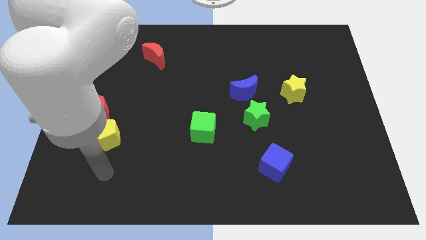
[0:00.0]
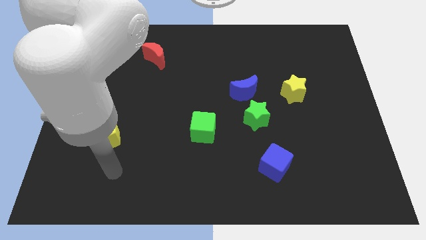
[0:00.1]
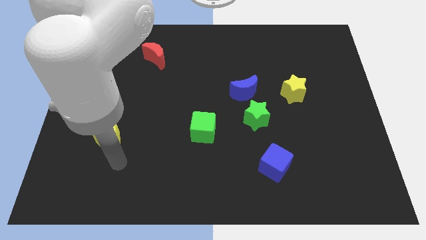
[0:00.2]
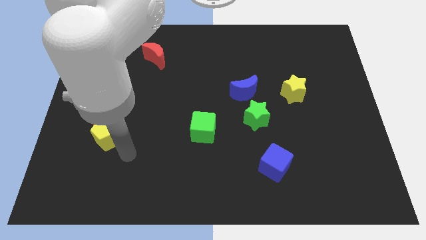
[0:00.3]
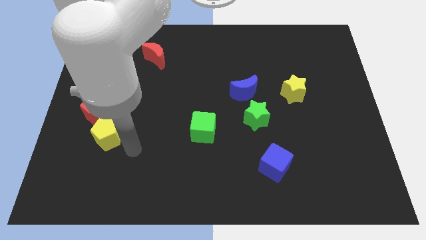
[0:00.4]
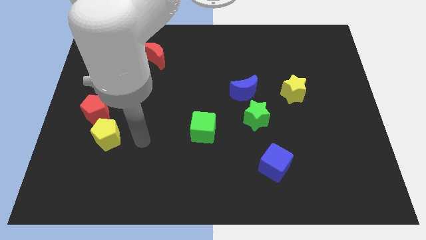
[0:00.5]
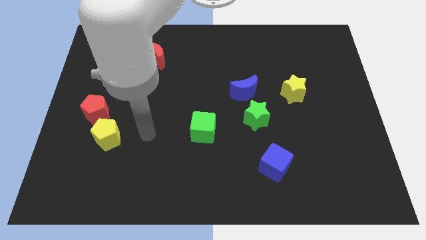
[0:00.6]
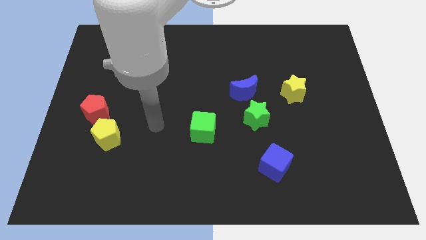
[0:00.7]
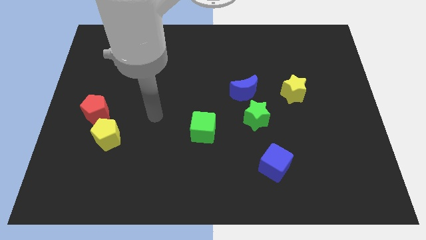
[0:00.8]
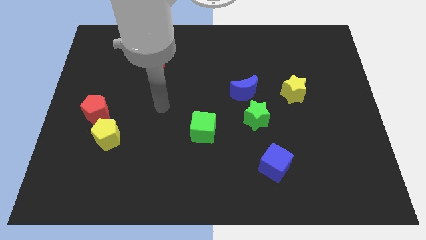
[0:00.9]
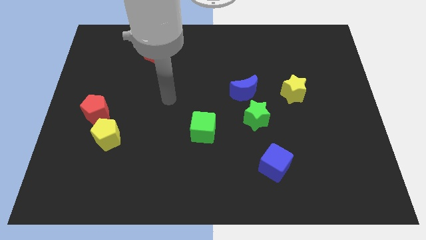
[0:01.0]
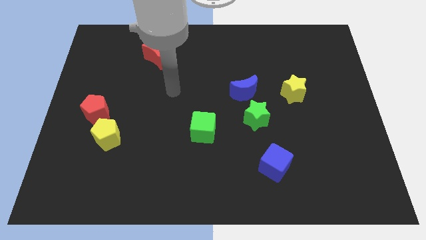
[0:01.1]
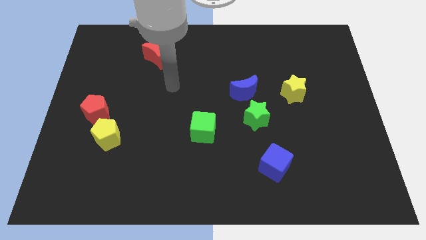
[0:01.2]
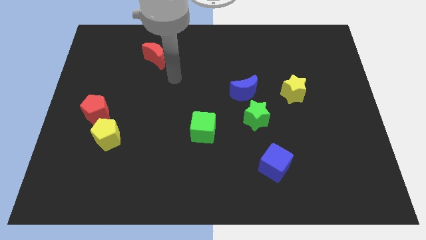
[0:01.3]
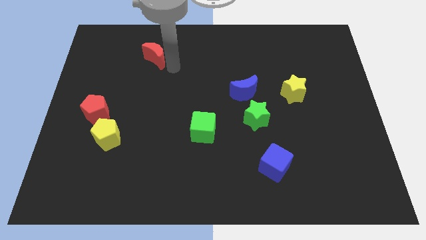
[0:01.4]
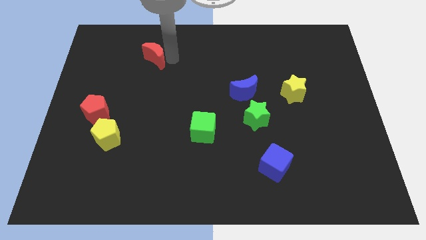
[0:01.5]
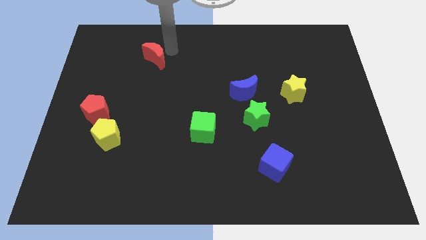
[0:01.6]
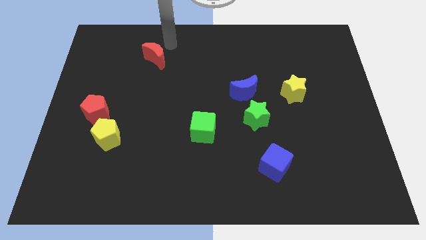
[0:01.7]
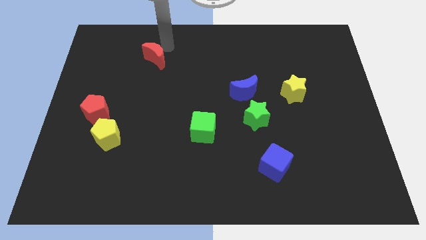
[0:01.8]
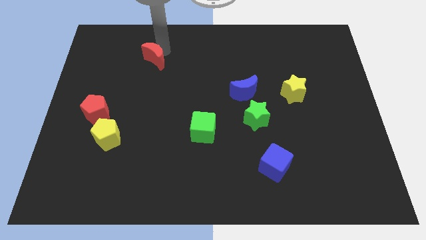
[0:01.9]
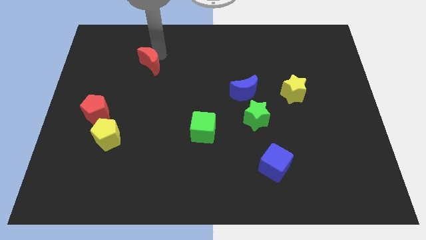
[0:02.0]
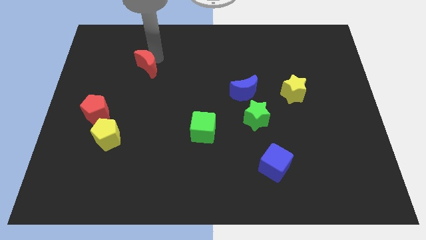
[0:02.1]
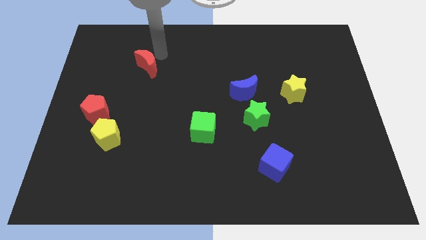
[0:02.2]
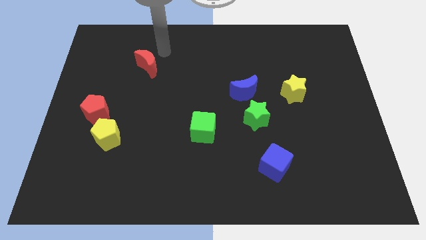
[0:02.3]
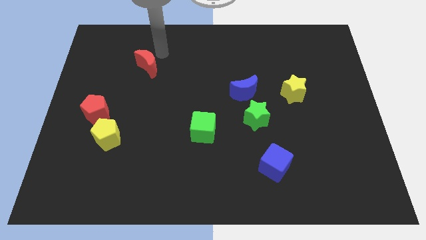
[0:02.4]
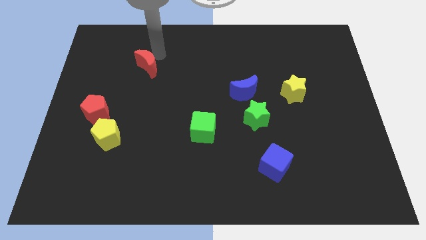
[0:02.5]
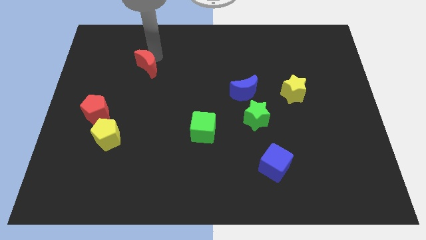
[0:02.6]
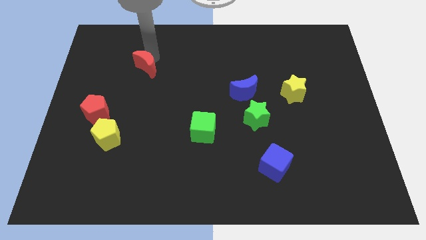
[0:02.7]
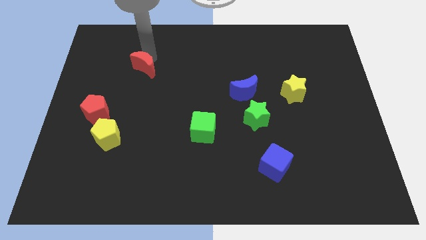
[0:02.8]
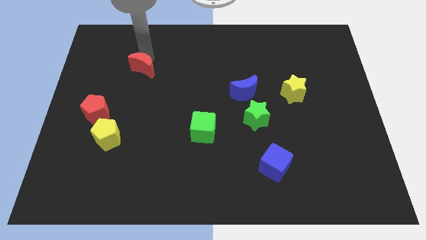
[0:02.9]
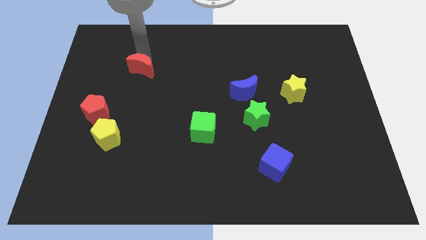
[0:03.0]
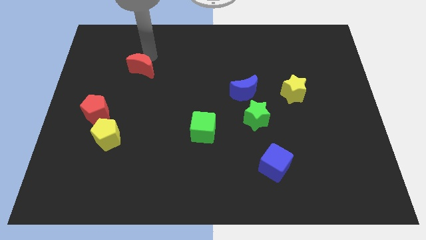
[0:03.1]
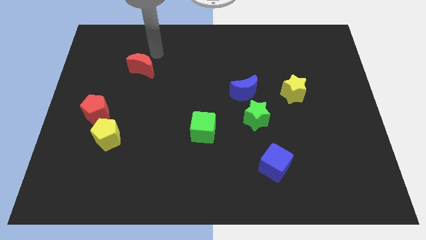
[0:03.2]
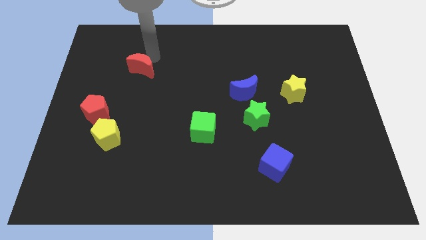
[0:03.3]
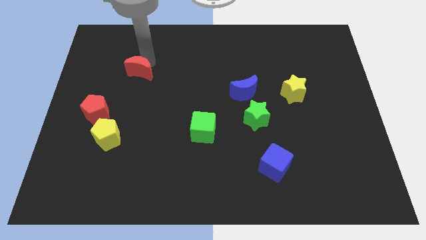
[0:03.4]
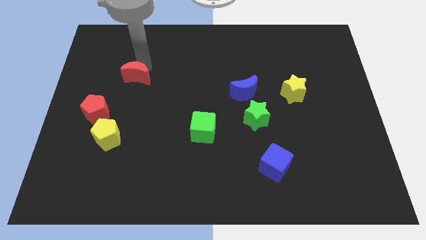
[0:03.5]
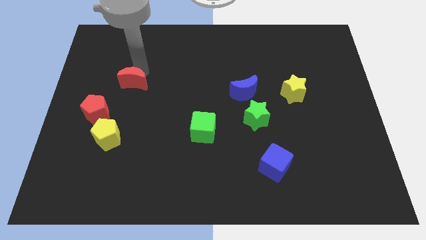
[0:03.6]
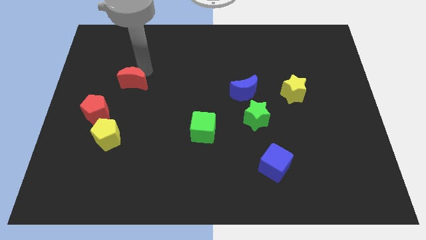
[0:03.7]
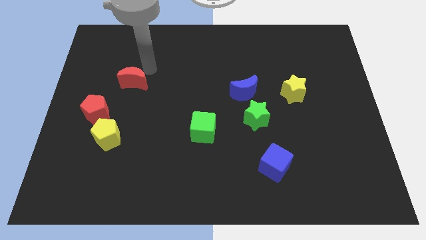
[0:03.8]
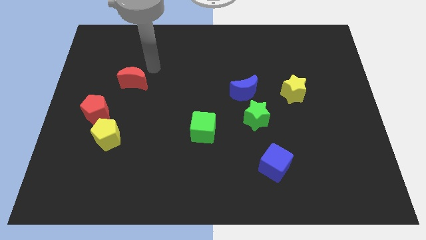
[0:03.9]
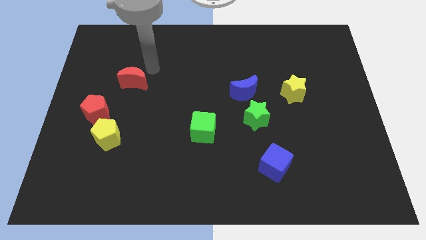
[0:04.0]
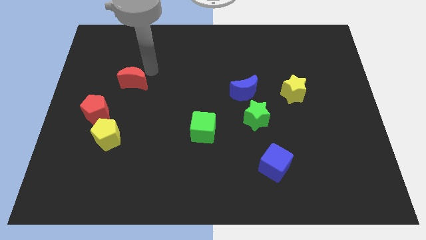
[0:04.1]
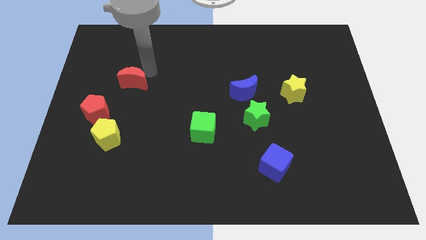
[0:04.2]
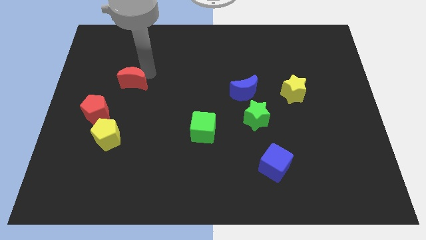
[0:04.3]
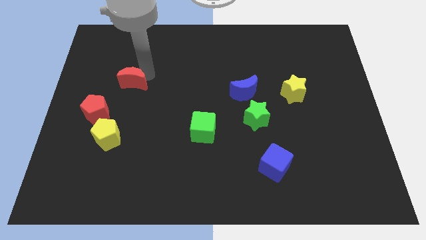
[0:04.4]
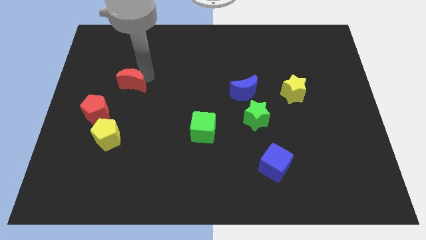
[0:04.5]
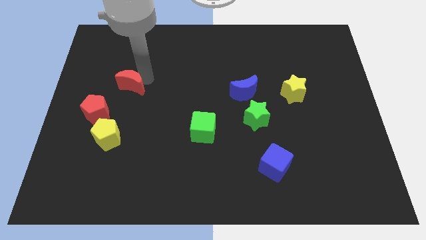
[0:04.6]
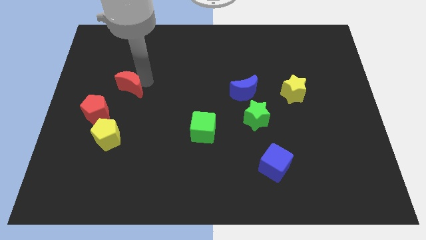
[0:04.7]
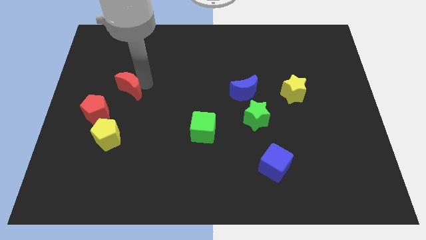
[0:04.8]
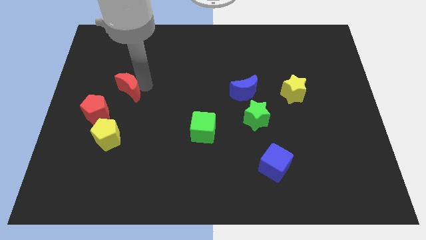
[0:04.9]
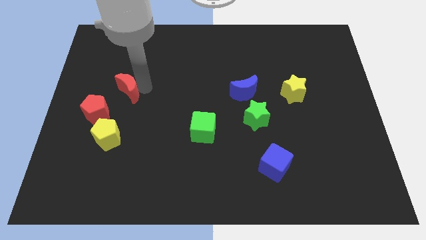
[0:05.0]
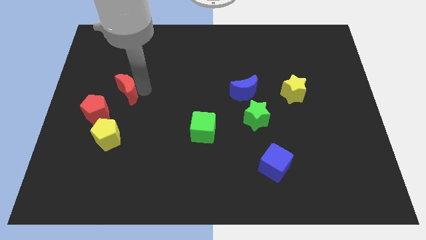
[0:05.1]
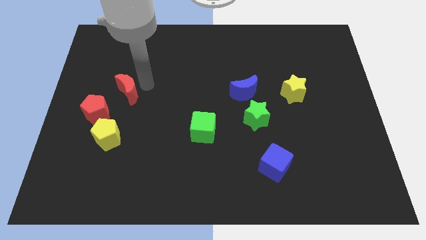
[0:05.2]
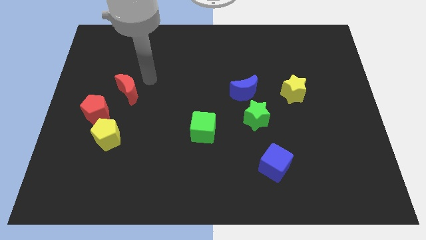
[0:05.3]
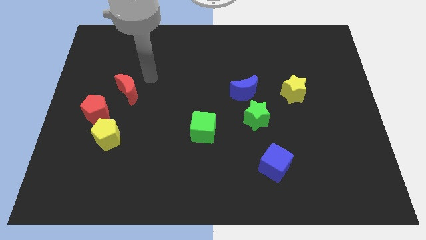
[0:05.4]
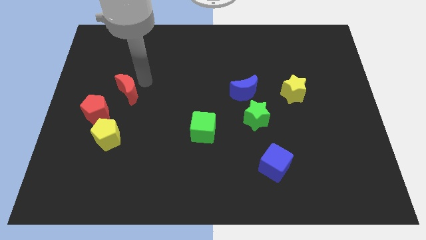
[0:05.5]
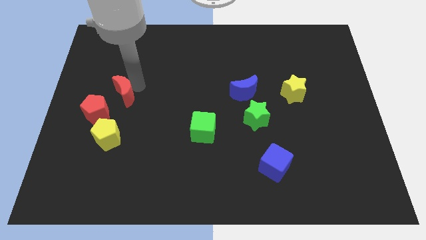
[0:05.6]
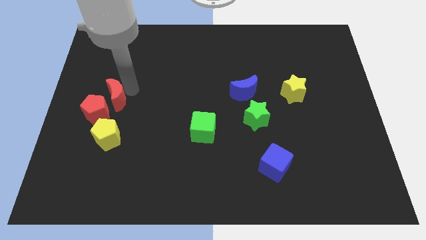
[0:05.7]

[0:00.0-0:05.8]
push the red moon to the red pentagon

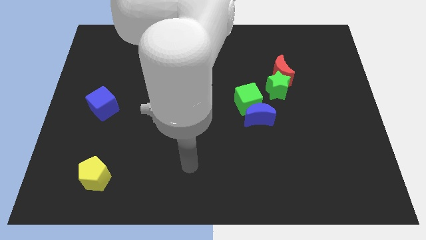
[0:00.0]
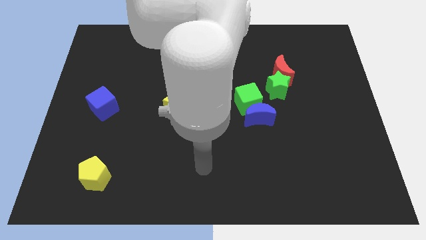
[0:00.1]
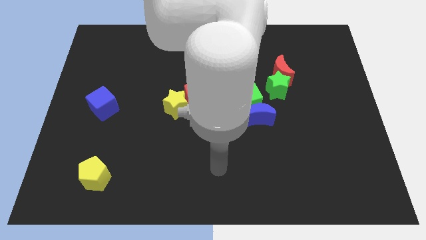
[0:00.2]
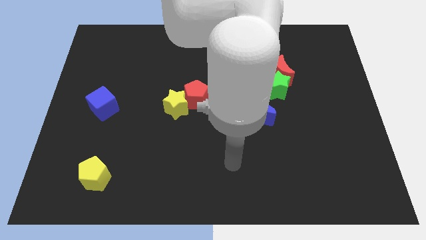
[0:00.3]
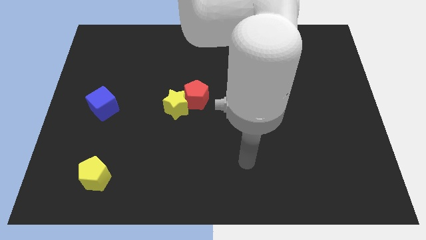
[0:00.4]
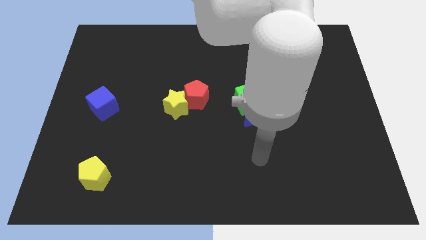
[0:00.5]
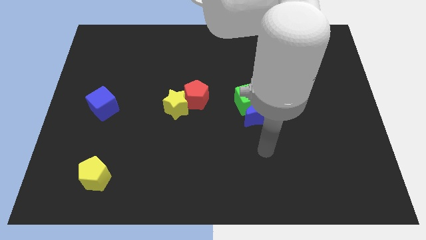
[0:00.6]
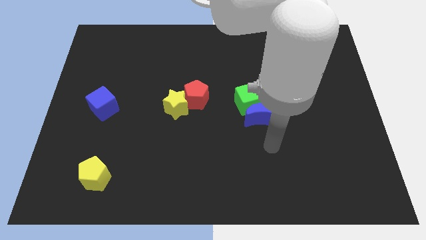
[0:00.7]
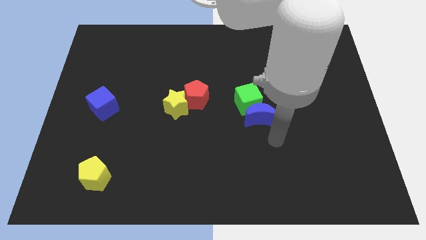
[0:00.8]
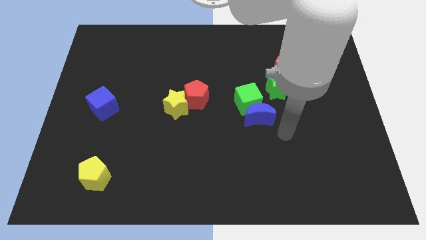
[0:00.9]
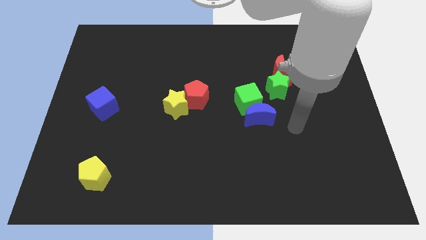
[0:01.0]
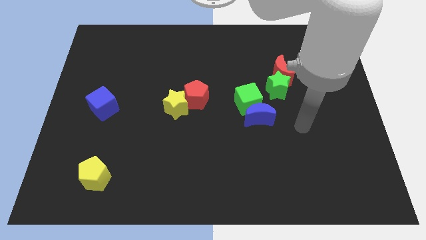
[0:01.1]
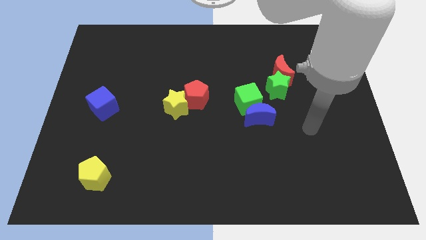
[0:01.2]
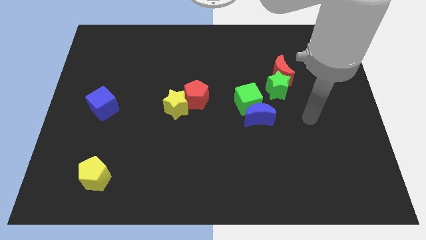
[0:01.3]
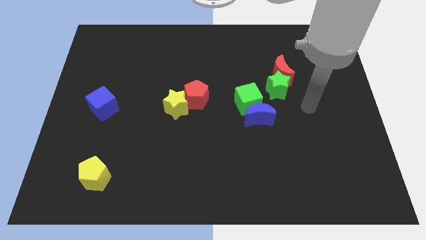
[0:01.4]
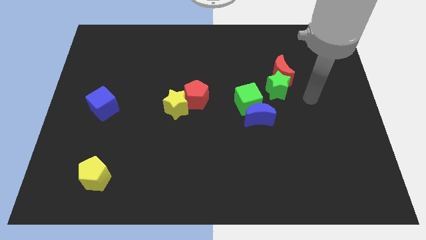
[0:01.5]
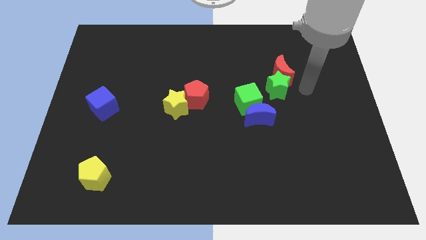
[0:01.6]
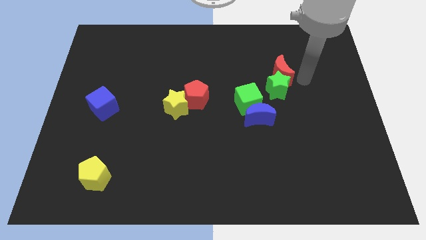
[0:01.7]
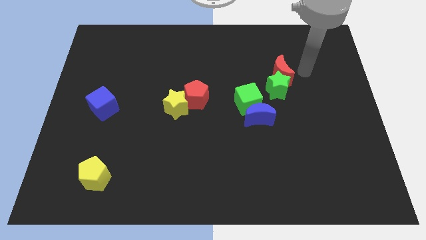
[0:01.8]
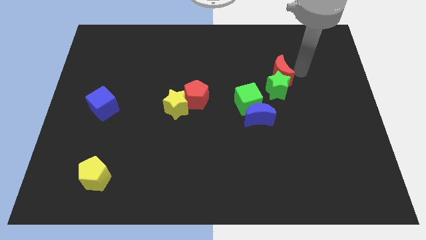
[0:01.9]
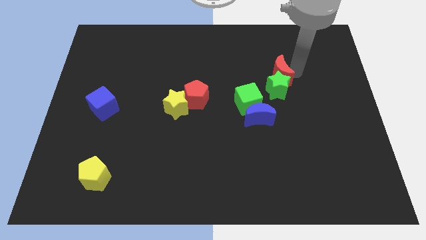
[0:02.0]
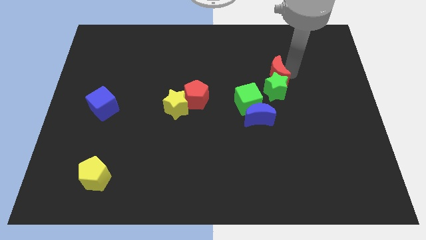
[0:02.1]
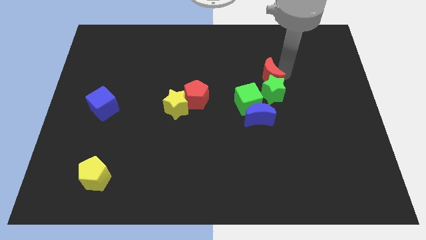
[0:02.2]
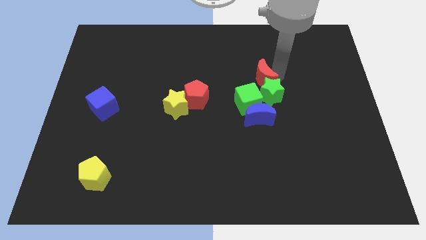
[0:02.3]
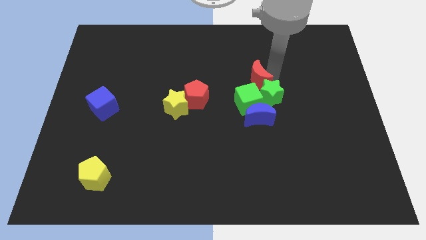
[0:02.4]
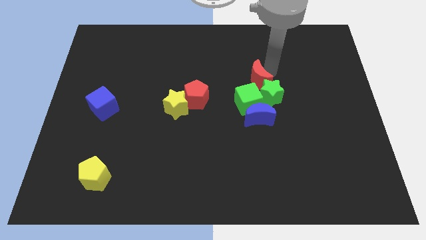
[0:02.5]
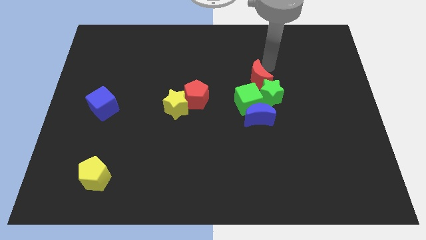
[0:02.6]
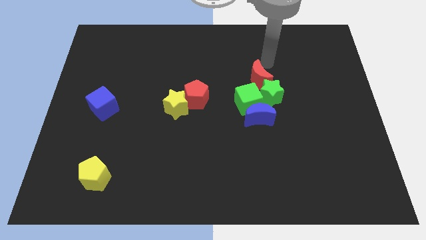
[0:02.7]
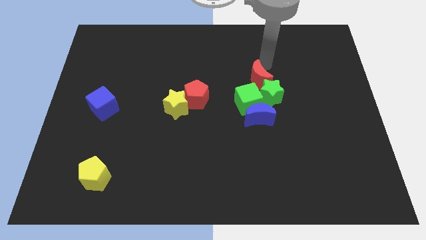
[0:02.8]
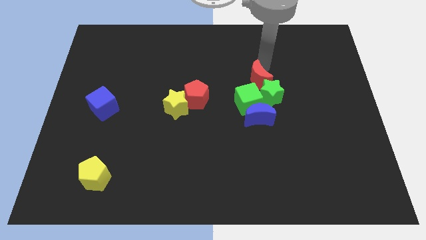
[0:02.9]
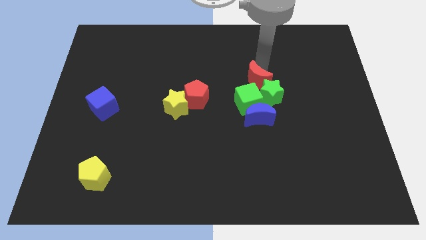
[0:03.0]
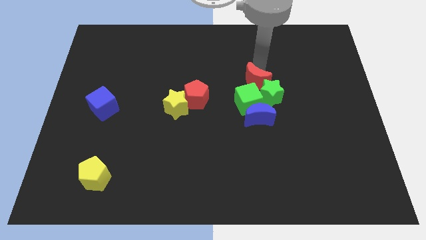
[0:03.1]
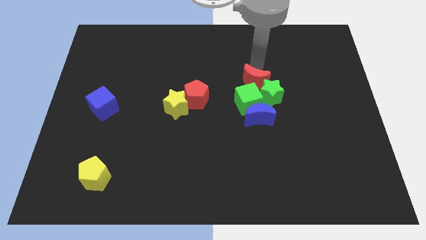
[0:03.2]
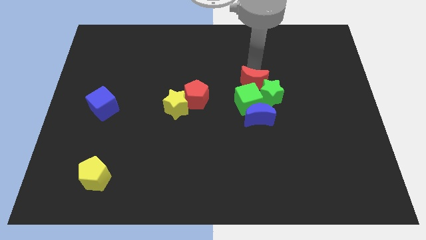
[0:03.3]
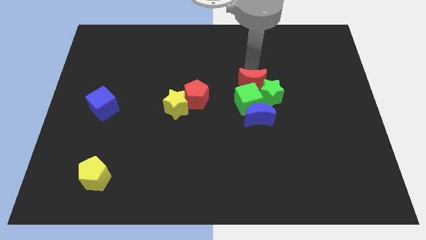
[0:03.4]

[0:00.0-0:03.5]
put the red moon next to the green cube
